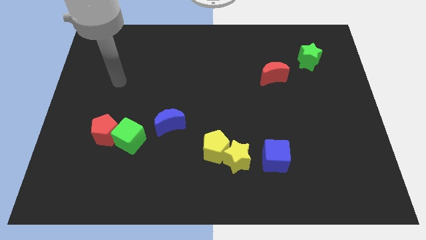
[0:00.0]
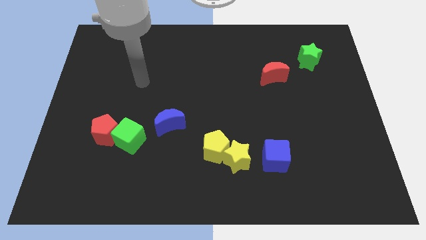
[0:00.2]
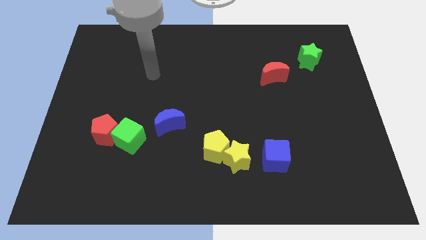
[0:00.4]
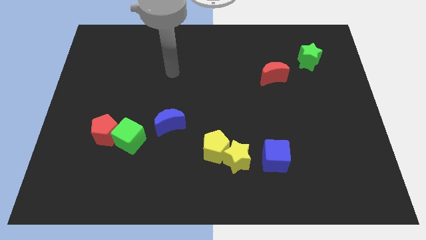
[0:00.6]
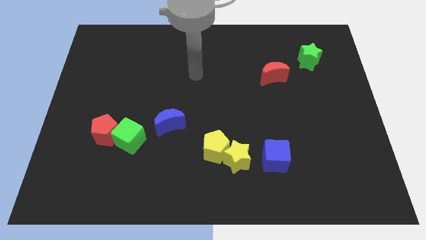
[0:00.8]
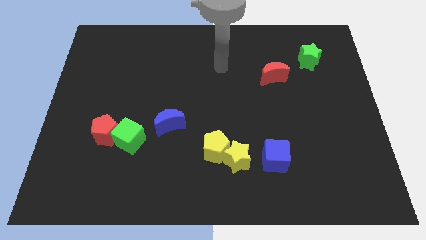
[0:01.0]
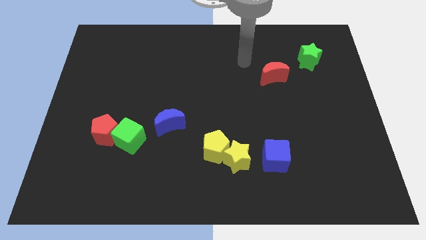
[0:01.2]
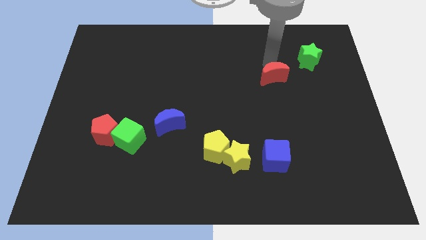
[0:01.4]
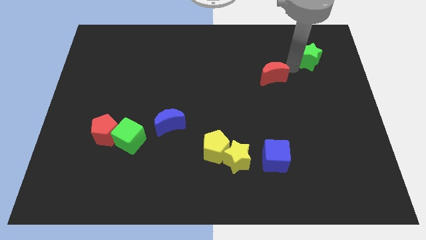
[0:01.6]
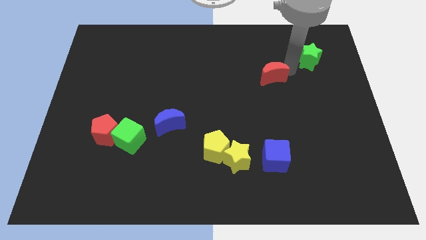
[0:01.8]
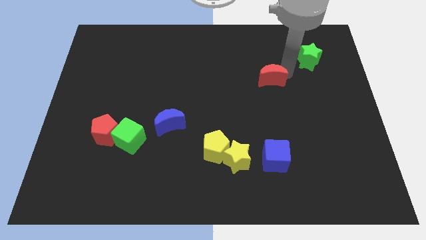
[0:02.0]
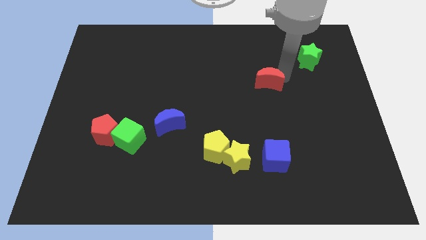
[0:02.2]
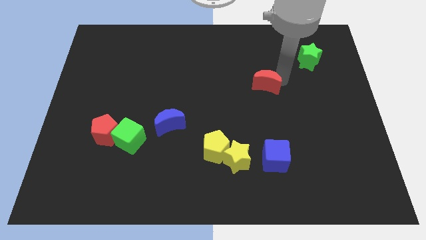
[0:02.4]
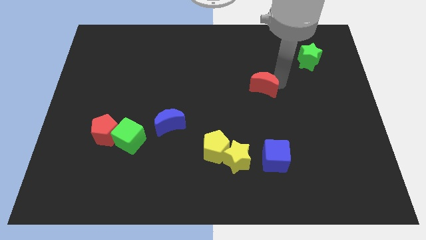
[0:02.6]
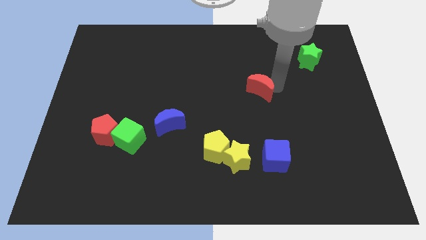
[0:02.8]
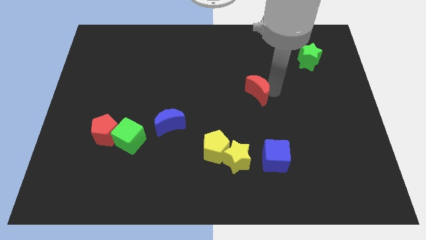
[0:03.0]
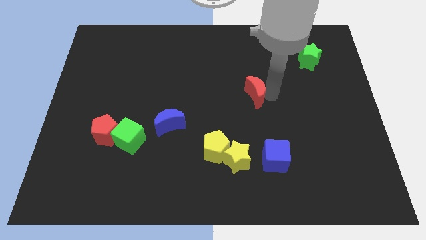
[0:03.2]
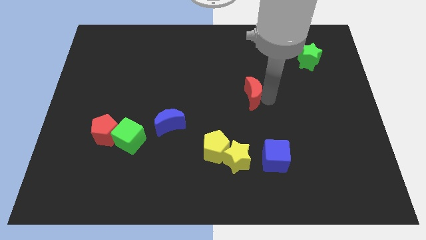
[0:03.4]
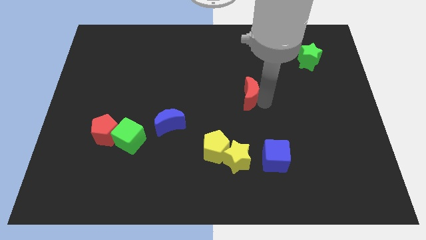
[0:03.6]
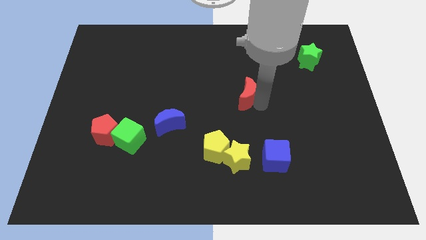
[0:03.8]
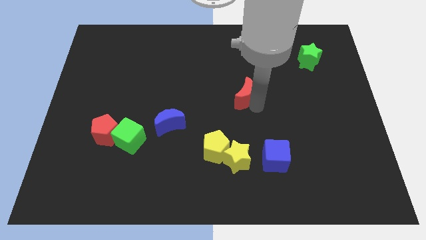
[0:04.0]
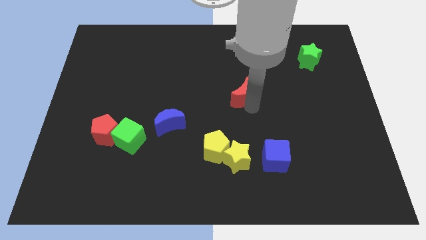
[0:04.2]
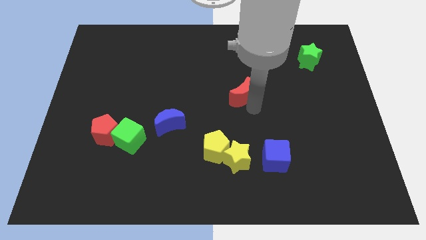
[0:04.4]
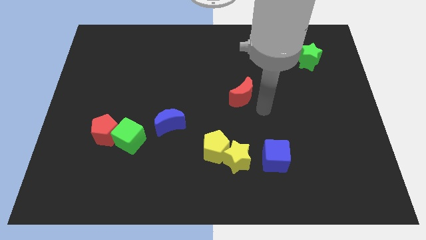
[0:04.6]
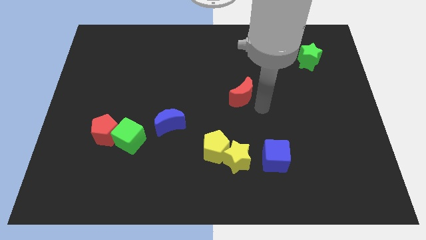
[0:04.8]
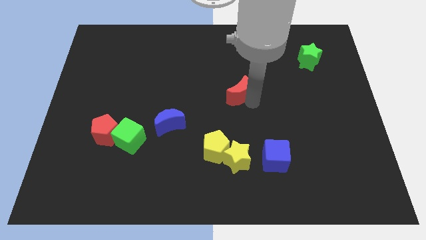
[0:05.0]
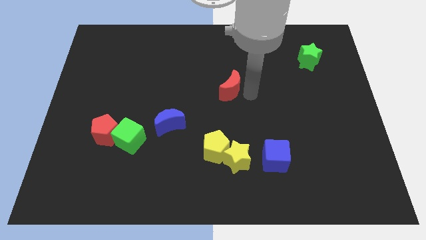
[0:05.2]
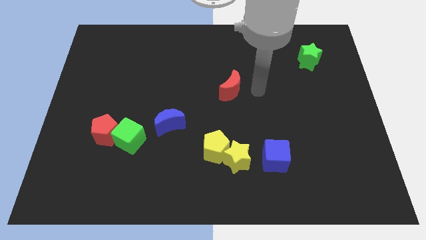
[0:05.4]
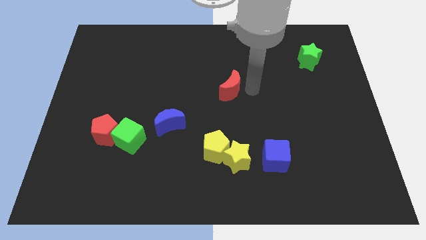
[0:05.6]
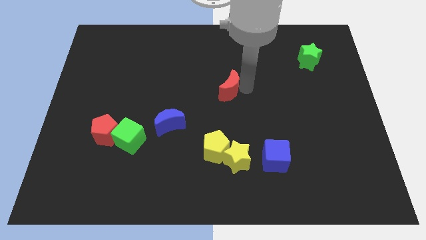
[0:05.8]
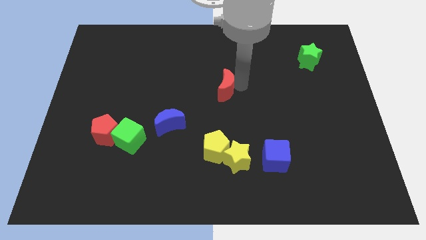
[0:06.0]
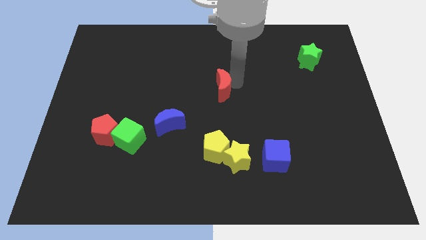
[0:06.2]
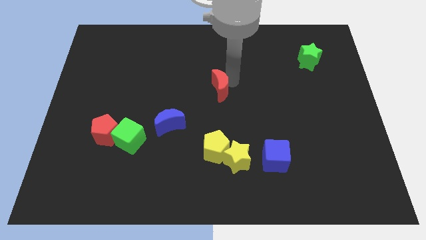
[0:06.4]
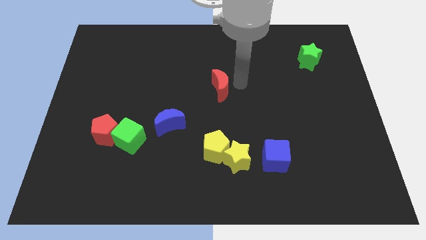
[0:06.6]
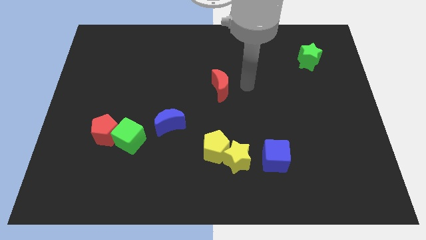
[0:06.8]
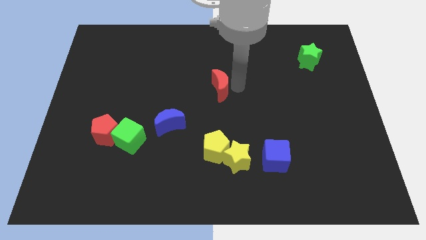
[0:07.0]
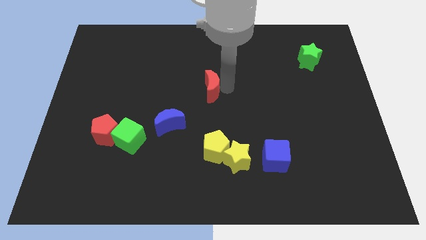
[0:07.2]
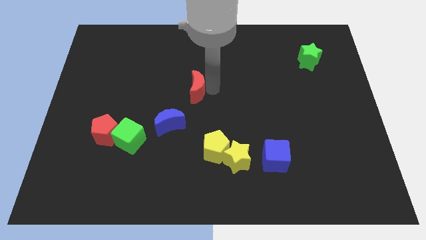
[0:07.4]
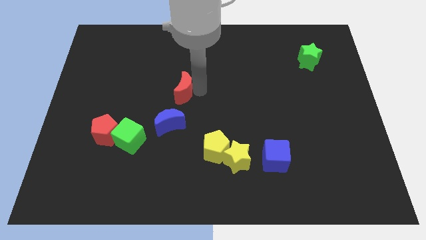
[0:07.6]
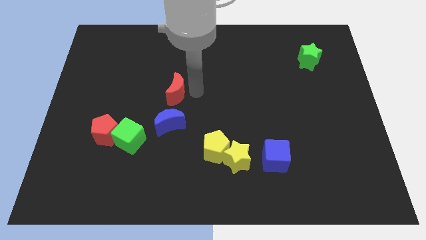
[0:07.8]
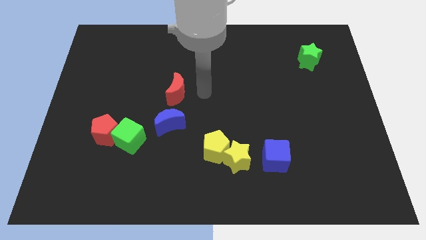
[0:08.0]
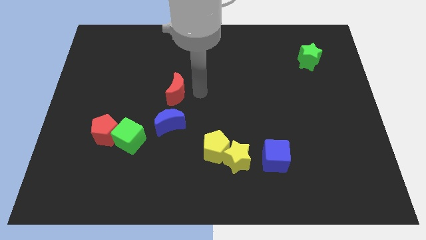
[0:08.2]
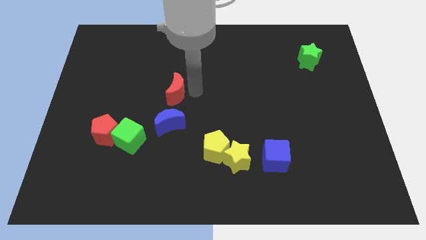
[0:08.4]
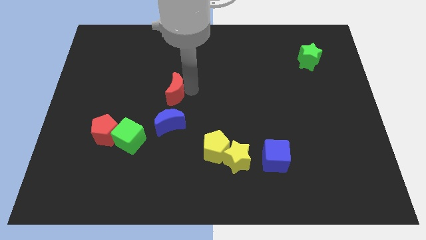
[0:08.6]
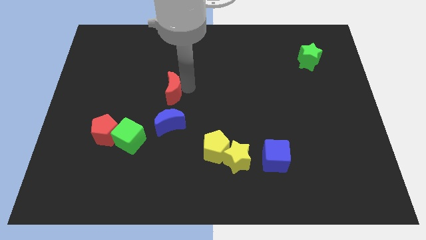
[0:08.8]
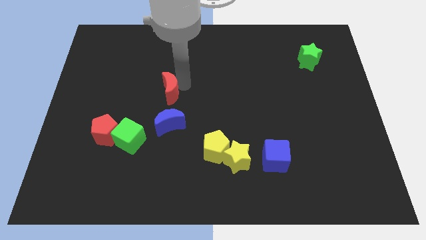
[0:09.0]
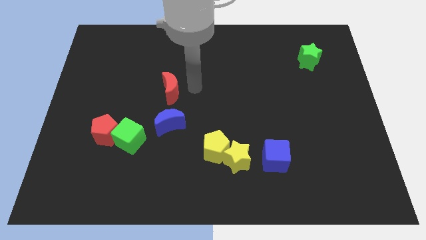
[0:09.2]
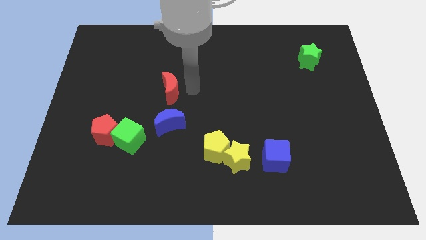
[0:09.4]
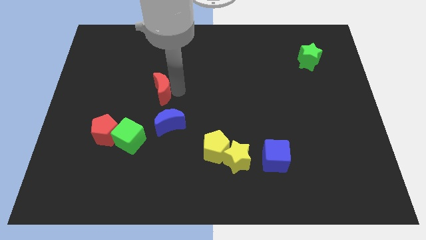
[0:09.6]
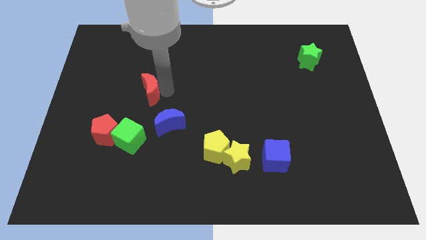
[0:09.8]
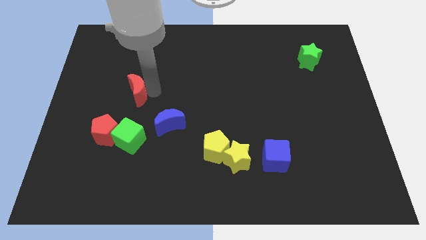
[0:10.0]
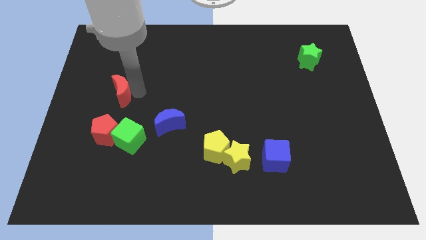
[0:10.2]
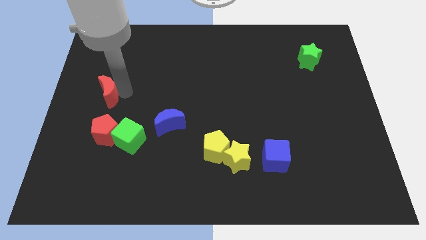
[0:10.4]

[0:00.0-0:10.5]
put the red moon to the left side
